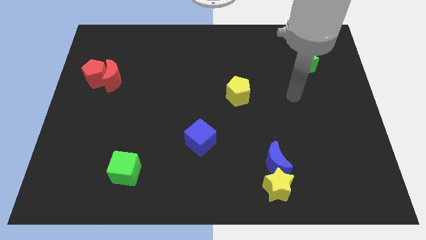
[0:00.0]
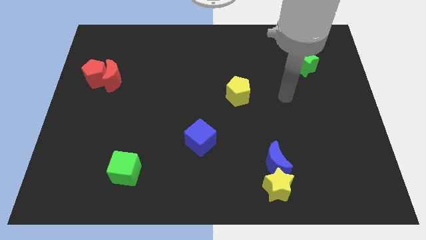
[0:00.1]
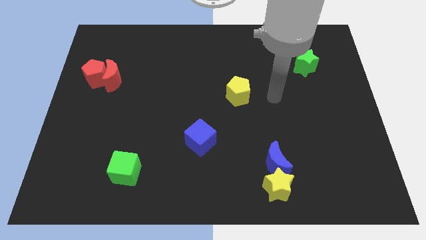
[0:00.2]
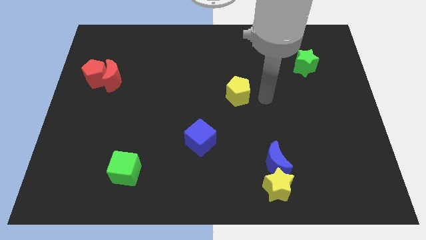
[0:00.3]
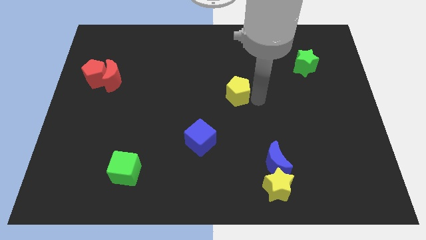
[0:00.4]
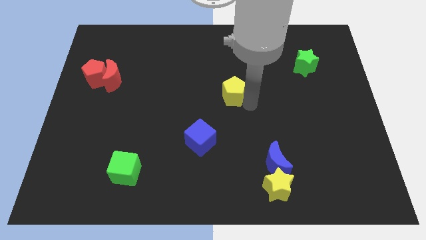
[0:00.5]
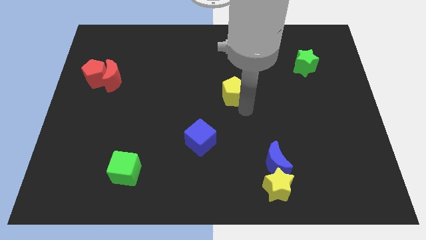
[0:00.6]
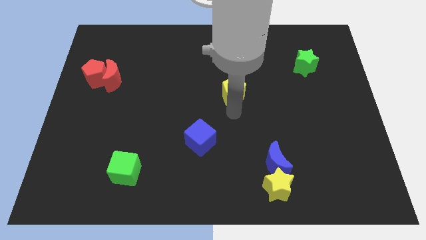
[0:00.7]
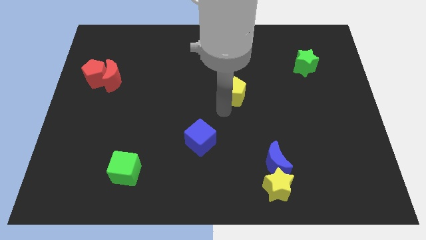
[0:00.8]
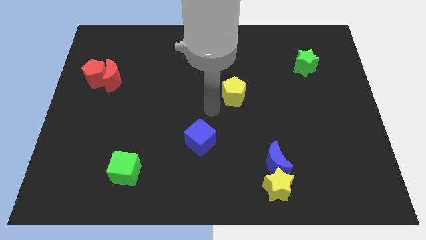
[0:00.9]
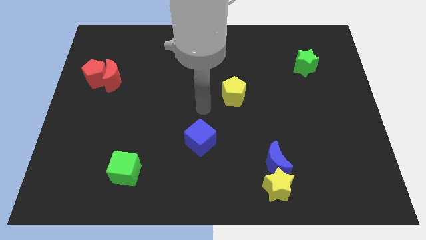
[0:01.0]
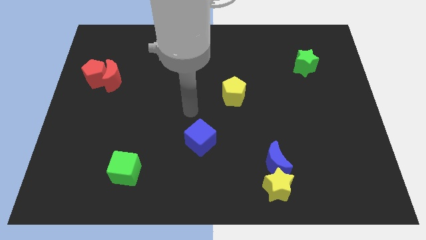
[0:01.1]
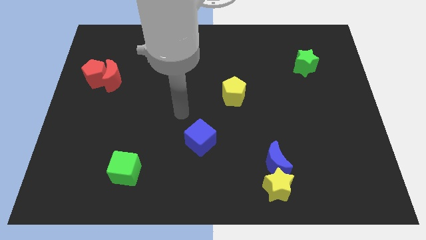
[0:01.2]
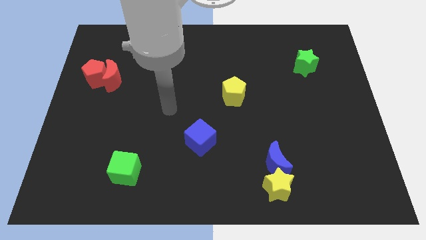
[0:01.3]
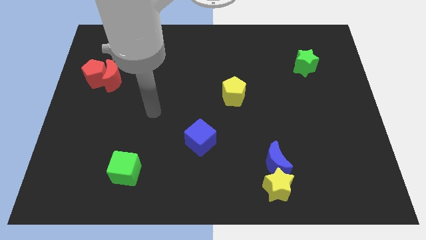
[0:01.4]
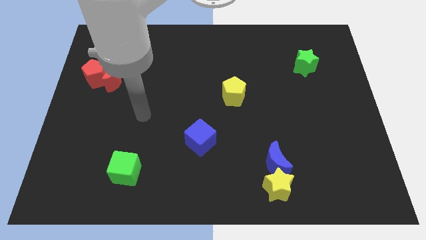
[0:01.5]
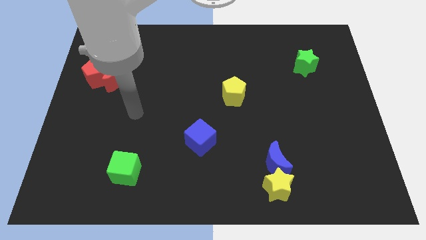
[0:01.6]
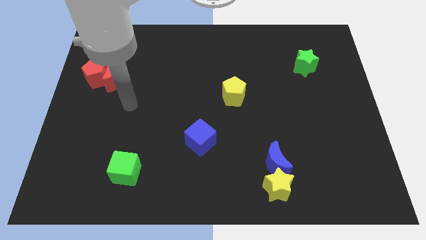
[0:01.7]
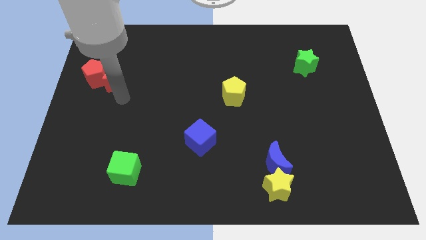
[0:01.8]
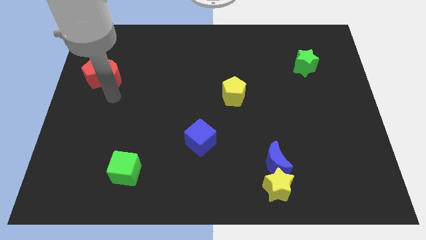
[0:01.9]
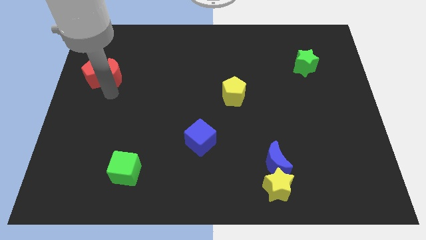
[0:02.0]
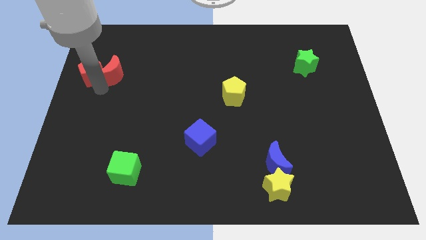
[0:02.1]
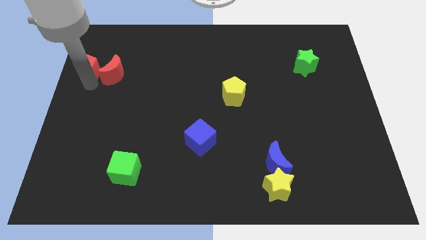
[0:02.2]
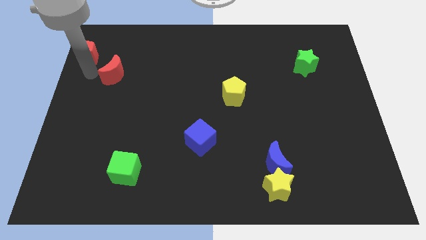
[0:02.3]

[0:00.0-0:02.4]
pull the red moon apart from the red pentagon

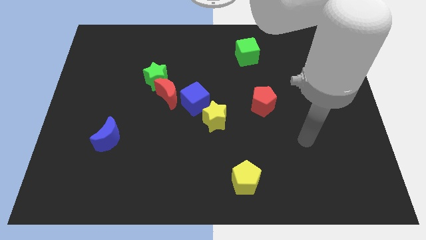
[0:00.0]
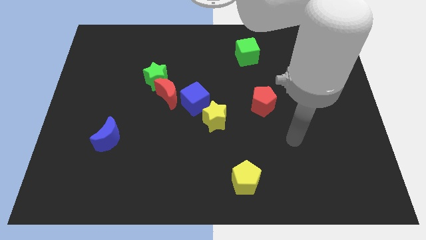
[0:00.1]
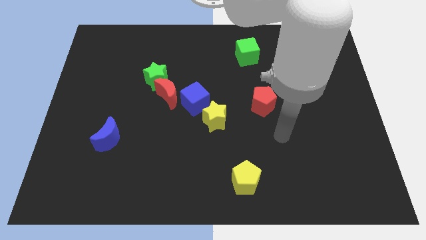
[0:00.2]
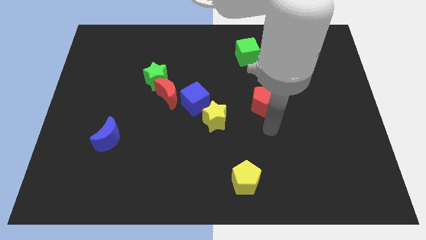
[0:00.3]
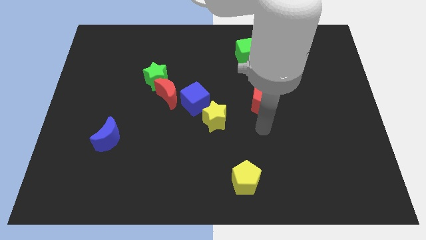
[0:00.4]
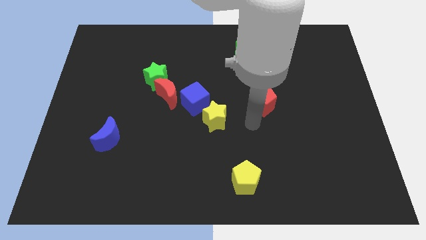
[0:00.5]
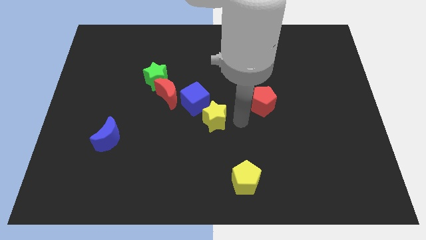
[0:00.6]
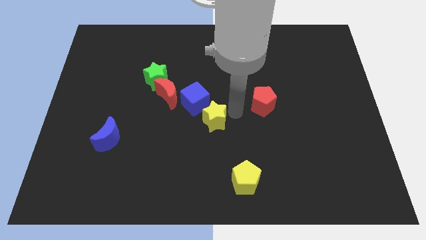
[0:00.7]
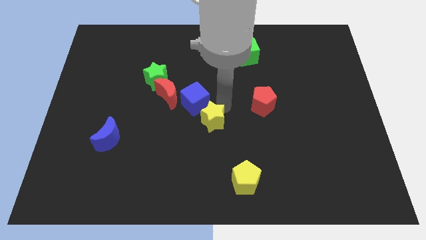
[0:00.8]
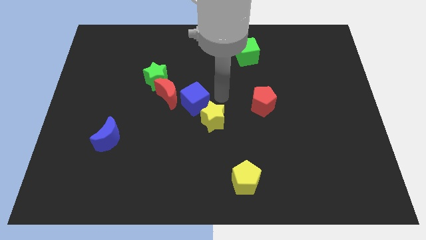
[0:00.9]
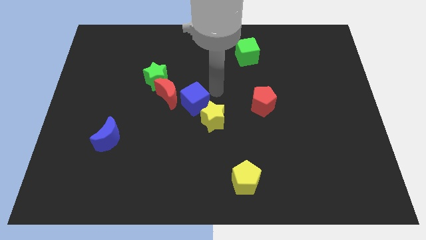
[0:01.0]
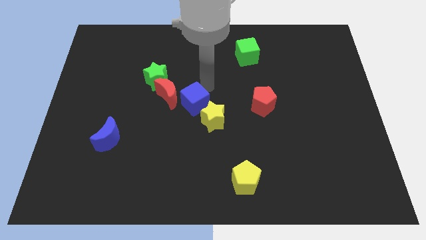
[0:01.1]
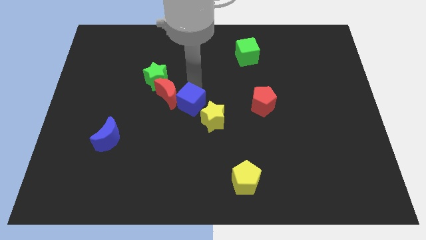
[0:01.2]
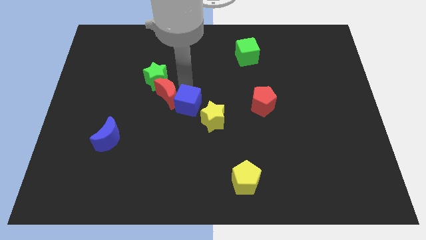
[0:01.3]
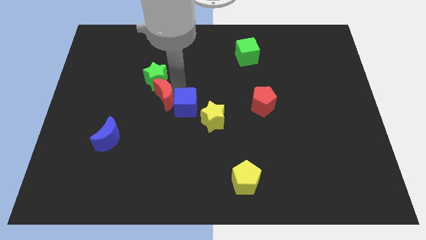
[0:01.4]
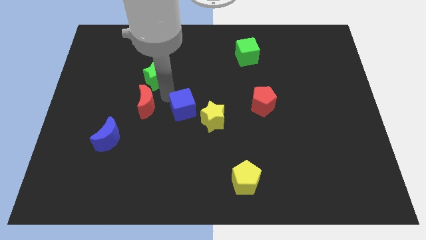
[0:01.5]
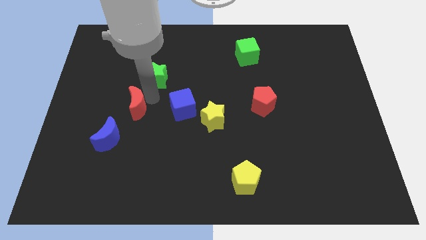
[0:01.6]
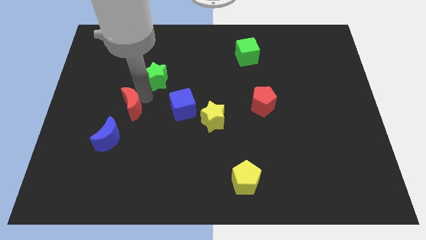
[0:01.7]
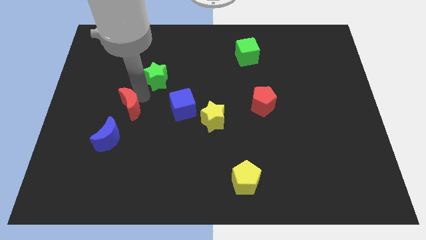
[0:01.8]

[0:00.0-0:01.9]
pull the green star apart from the red moon

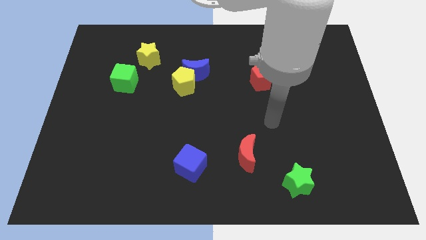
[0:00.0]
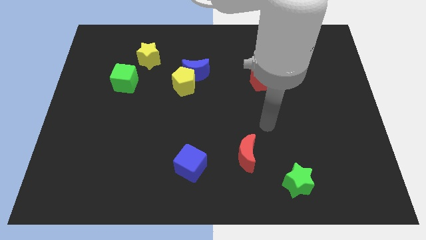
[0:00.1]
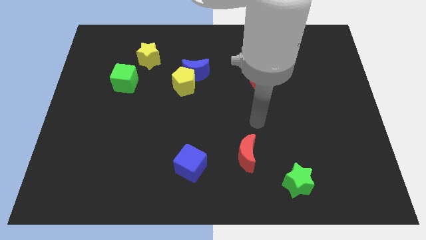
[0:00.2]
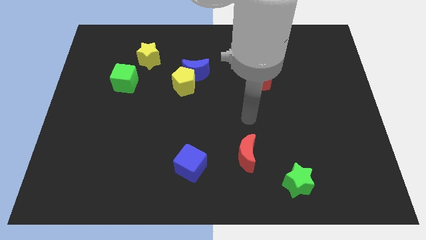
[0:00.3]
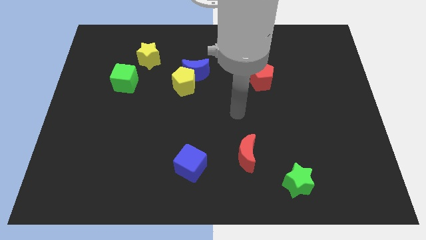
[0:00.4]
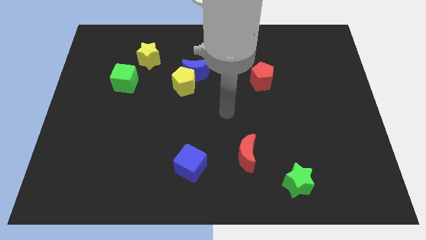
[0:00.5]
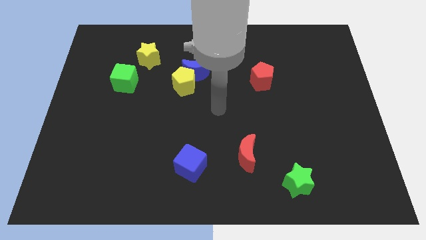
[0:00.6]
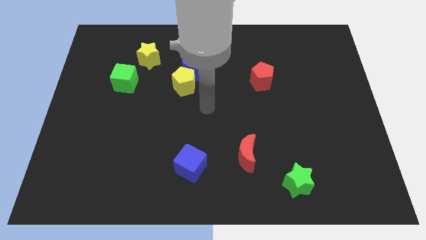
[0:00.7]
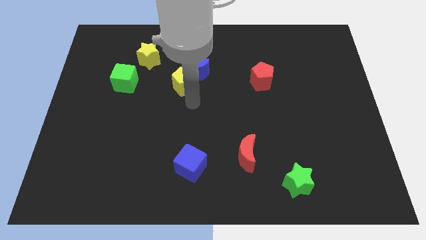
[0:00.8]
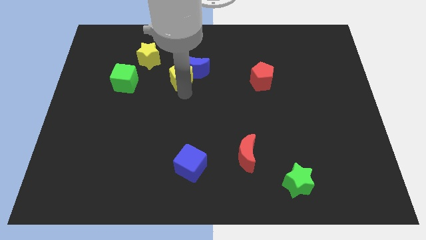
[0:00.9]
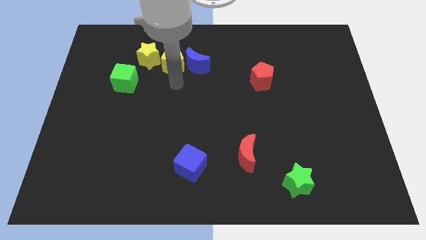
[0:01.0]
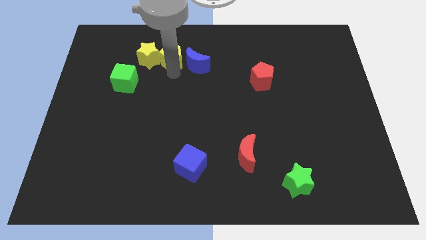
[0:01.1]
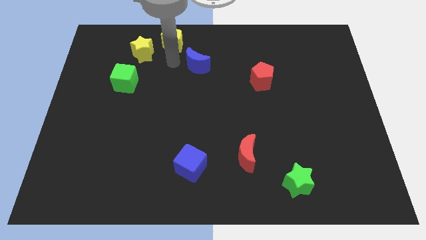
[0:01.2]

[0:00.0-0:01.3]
pull the blue moon apart from the yellow pentagon

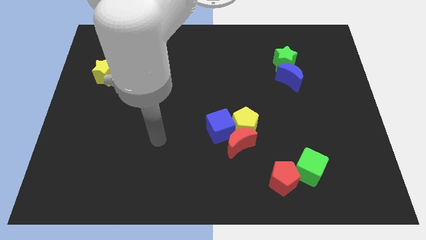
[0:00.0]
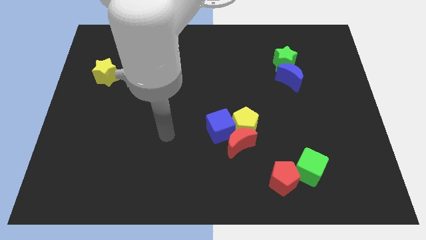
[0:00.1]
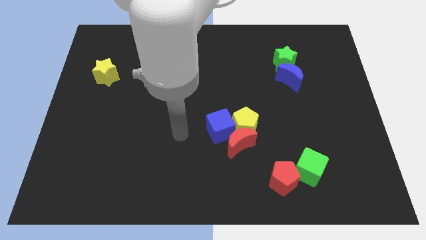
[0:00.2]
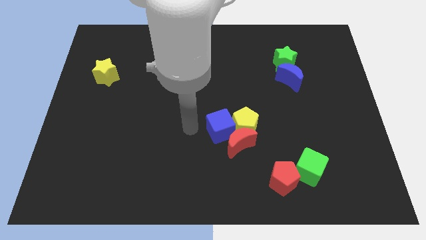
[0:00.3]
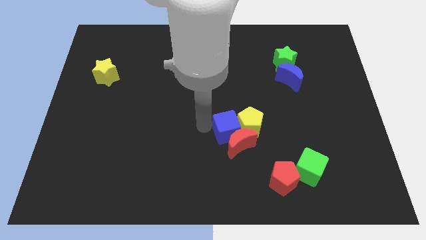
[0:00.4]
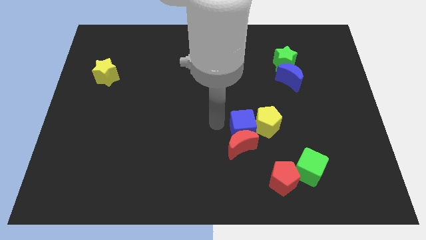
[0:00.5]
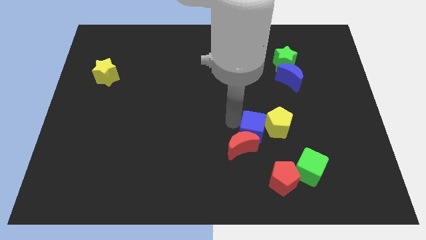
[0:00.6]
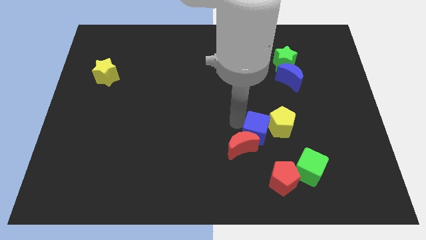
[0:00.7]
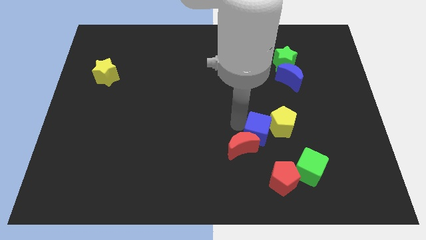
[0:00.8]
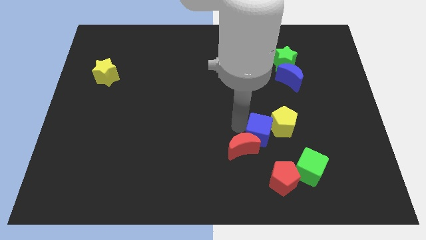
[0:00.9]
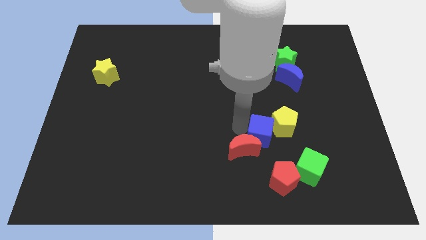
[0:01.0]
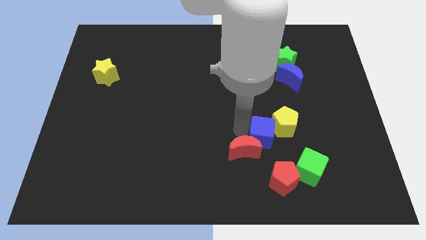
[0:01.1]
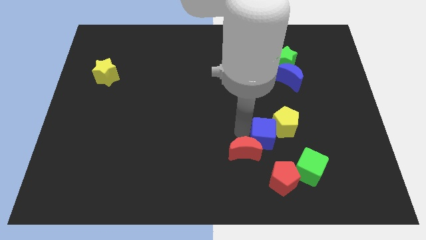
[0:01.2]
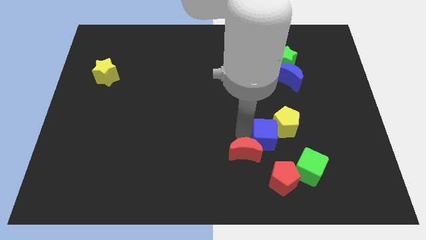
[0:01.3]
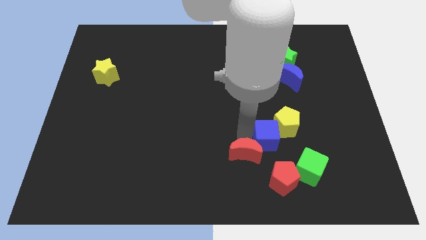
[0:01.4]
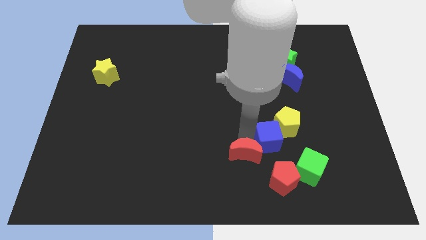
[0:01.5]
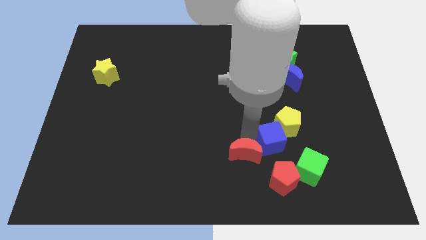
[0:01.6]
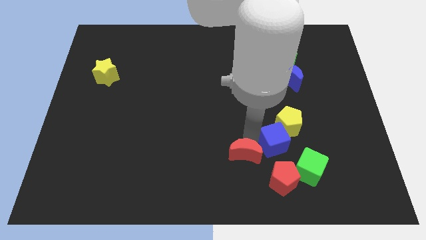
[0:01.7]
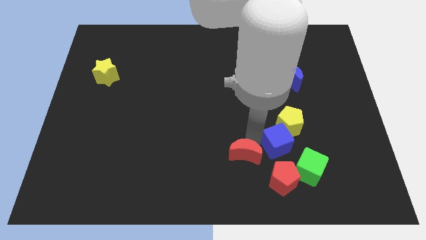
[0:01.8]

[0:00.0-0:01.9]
move the red moon away from the yellow pentagon and blue cube

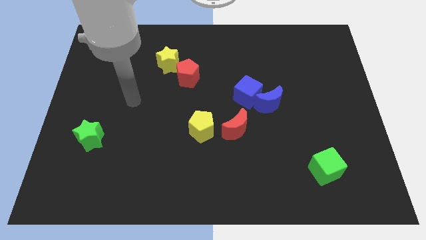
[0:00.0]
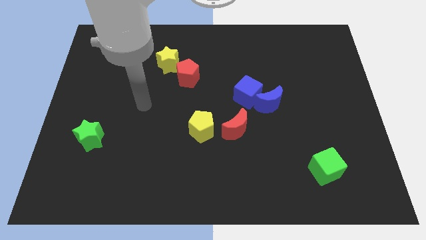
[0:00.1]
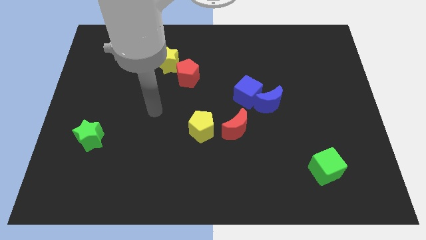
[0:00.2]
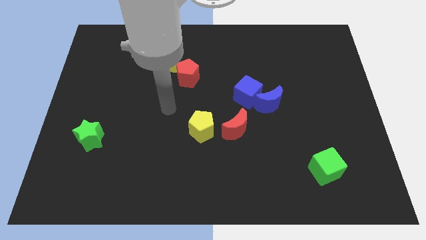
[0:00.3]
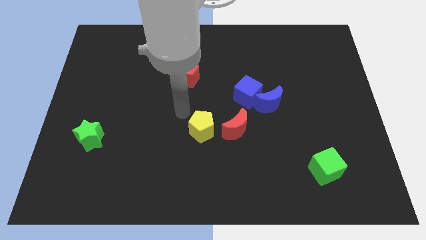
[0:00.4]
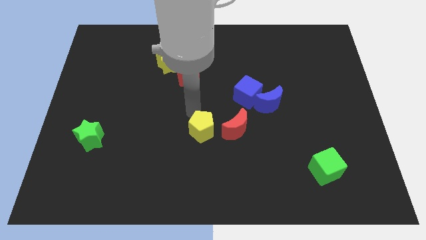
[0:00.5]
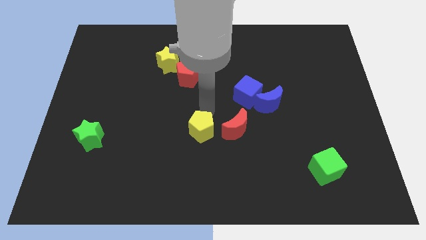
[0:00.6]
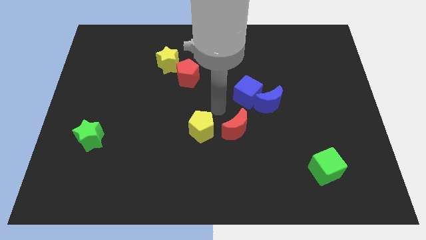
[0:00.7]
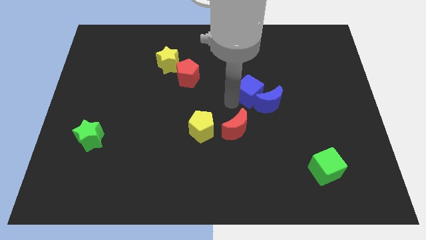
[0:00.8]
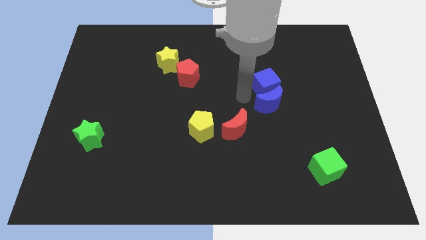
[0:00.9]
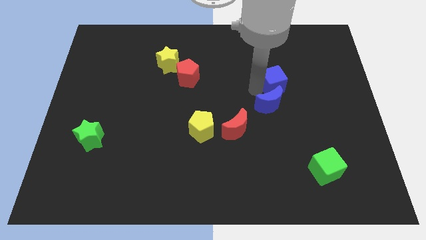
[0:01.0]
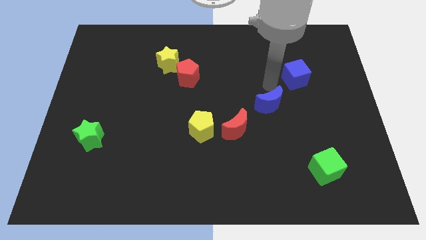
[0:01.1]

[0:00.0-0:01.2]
separate the blue moon from the blue cube

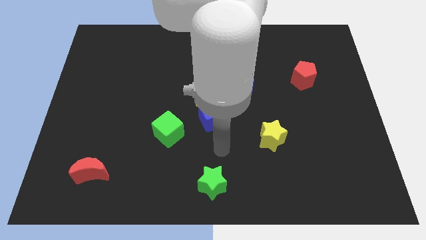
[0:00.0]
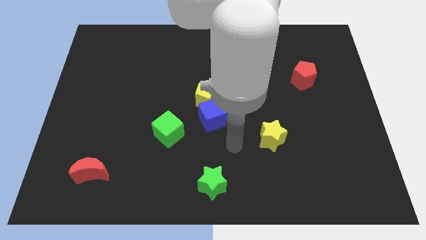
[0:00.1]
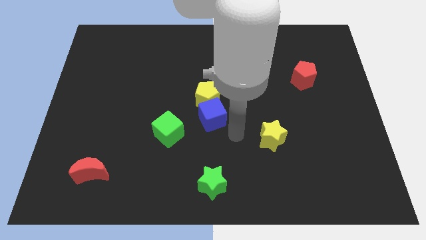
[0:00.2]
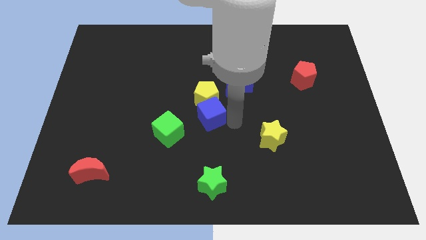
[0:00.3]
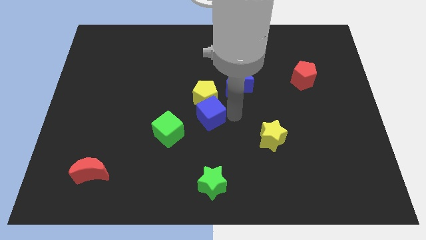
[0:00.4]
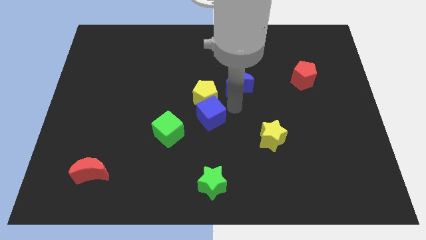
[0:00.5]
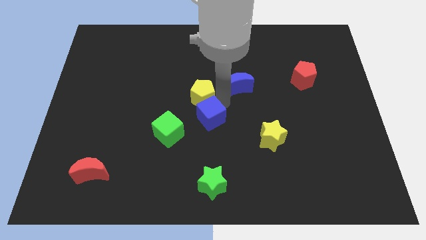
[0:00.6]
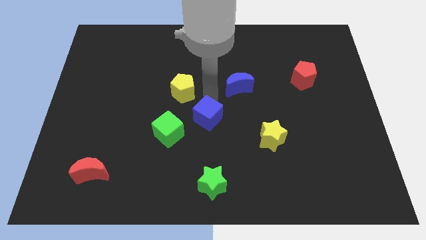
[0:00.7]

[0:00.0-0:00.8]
separate the blue cube from the yellow pentagon
